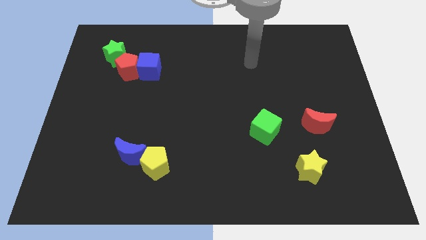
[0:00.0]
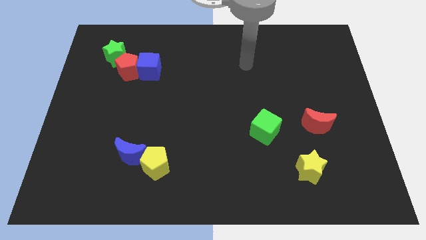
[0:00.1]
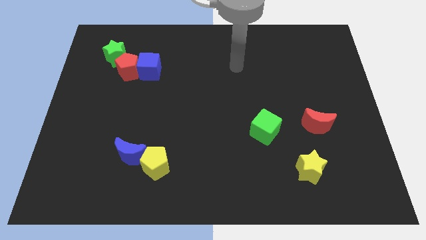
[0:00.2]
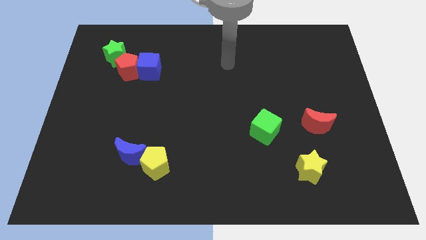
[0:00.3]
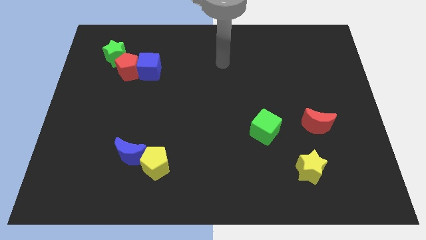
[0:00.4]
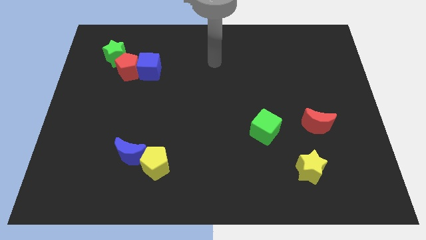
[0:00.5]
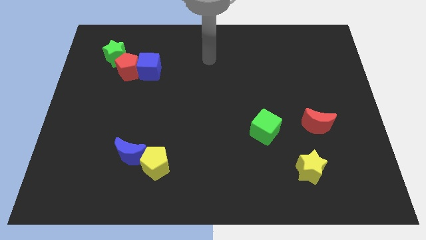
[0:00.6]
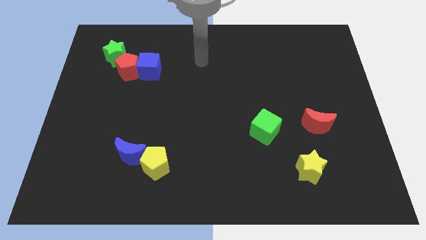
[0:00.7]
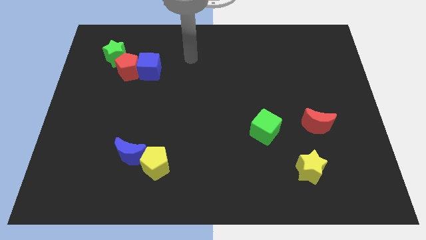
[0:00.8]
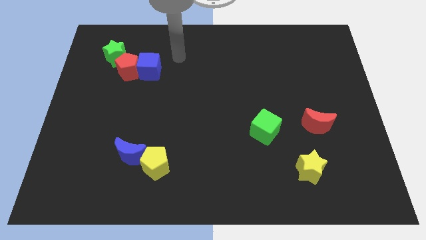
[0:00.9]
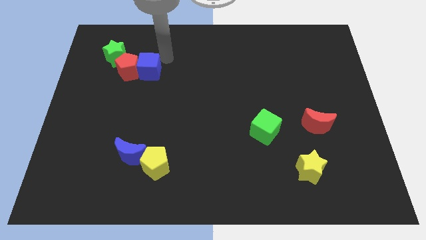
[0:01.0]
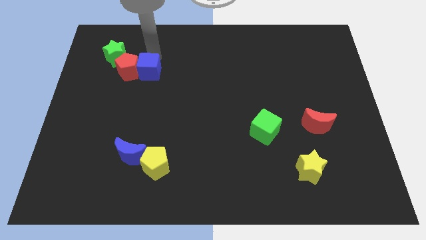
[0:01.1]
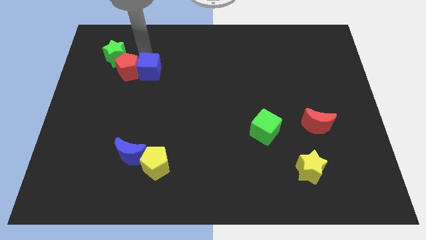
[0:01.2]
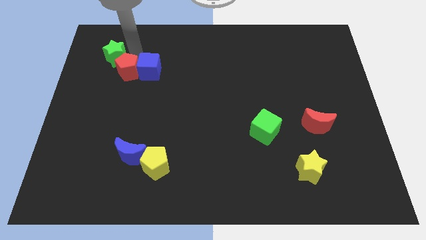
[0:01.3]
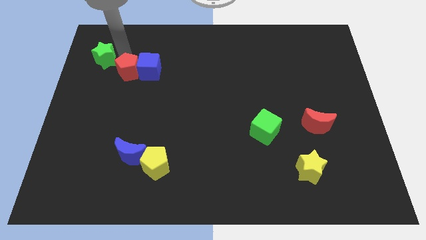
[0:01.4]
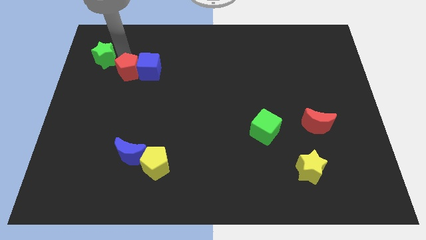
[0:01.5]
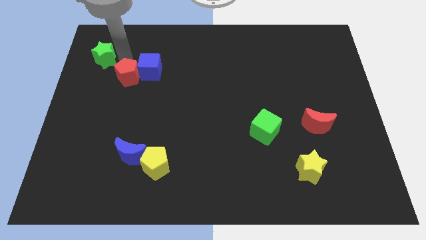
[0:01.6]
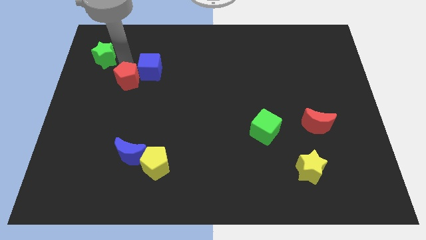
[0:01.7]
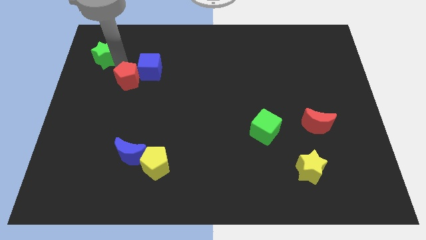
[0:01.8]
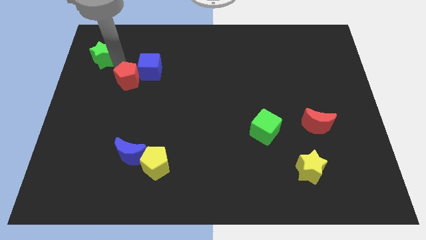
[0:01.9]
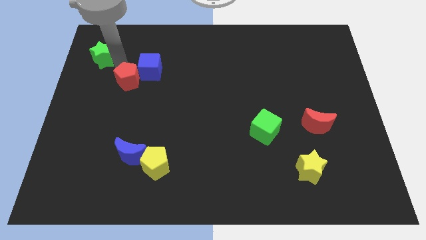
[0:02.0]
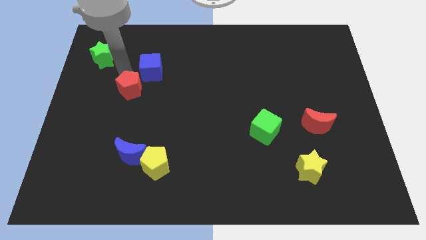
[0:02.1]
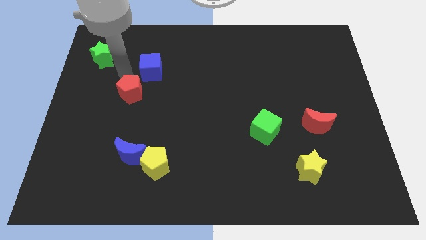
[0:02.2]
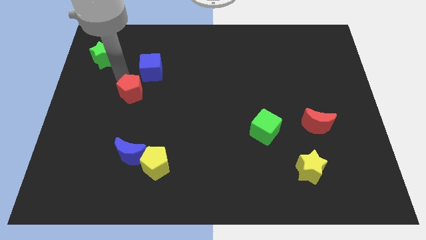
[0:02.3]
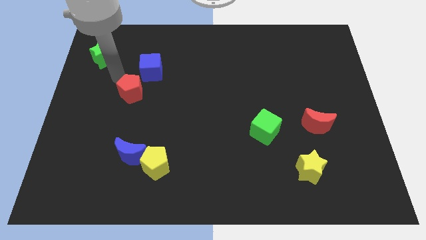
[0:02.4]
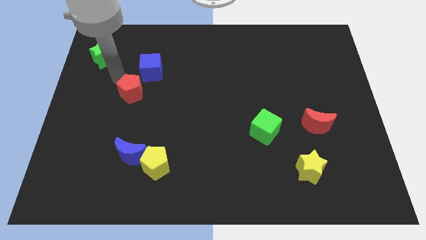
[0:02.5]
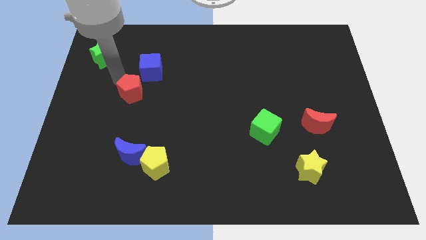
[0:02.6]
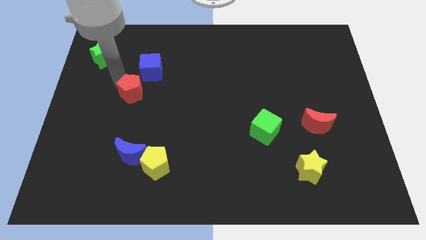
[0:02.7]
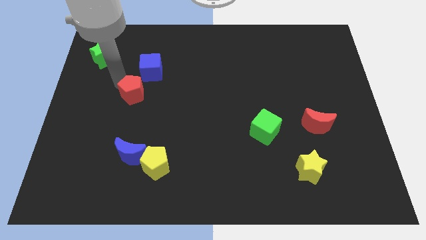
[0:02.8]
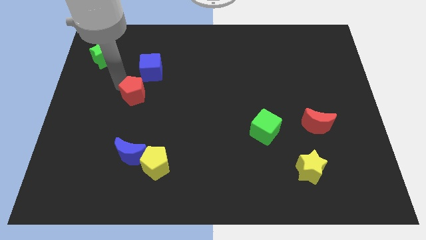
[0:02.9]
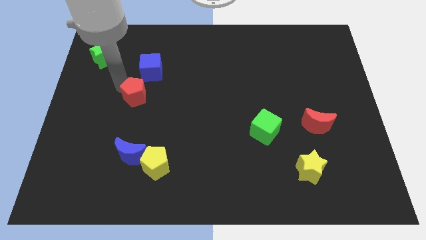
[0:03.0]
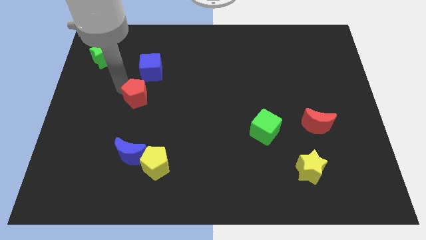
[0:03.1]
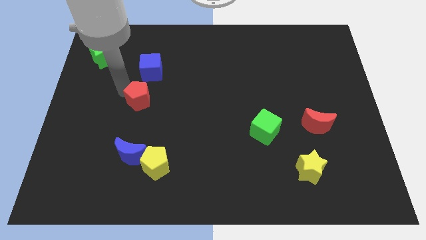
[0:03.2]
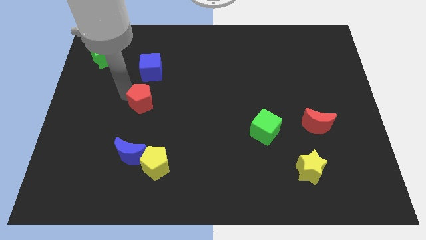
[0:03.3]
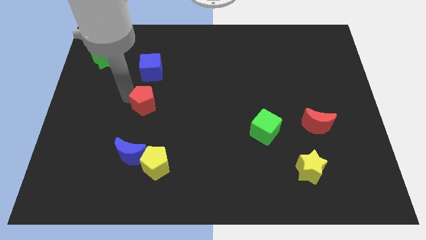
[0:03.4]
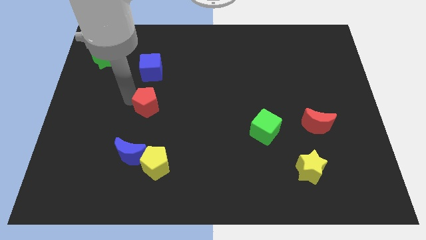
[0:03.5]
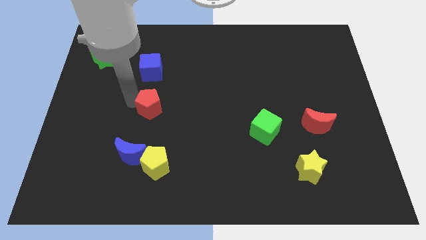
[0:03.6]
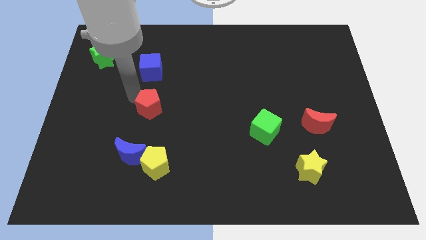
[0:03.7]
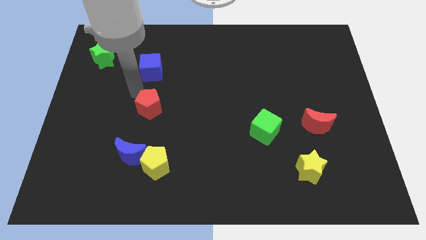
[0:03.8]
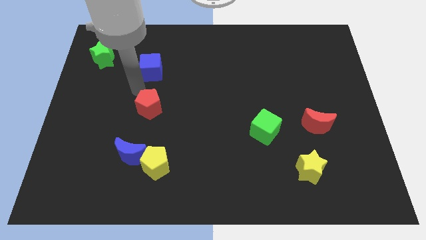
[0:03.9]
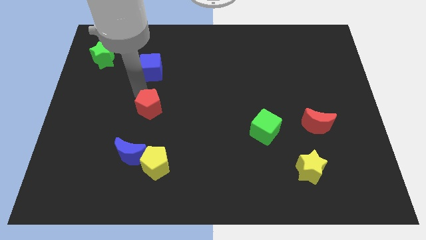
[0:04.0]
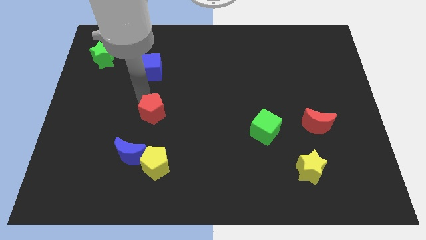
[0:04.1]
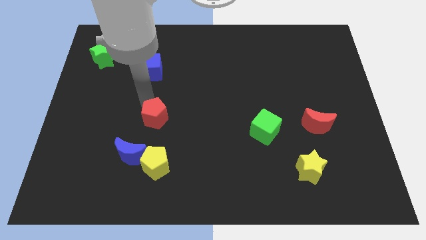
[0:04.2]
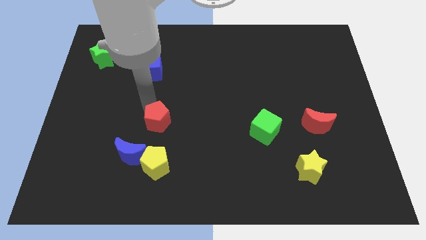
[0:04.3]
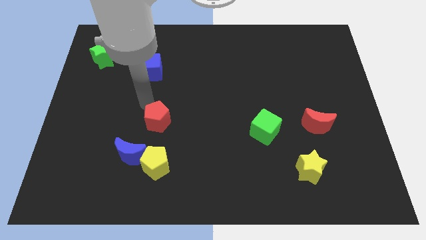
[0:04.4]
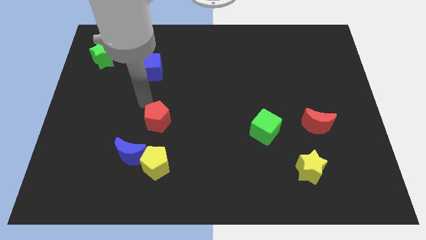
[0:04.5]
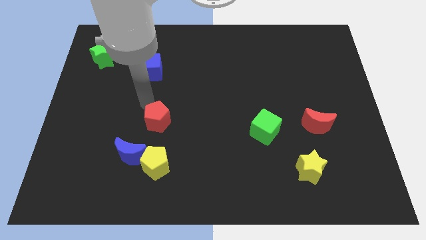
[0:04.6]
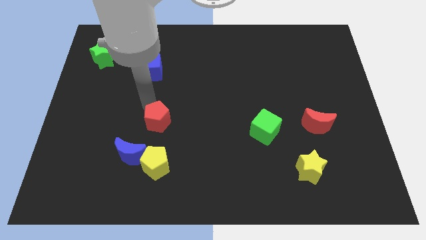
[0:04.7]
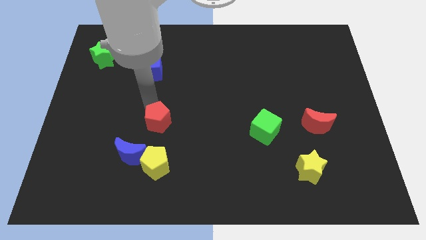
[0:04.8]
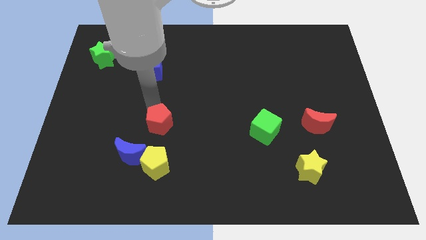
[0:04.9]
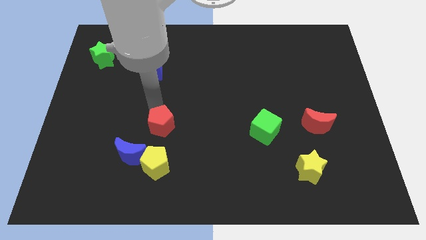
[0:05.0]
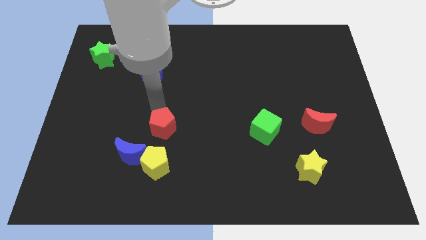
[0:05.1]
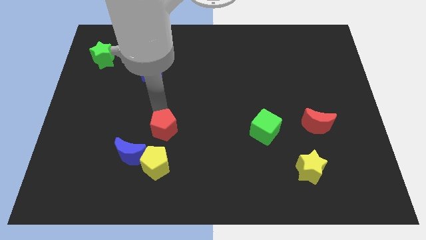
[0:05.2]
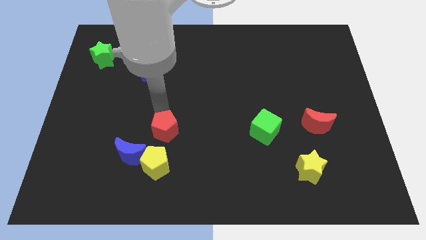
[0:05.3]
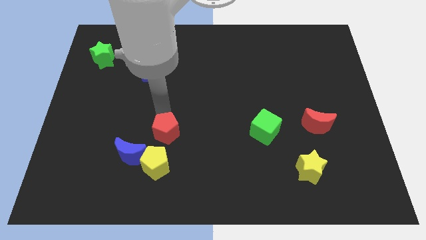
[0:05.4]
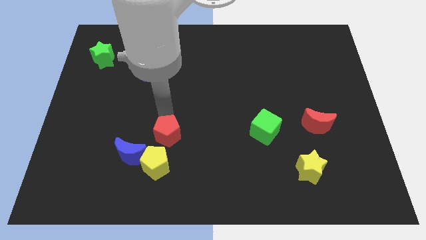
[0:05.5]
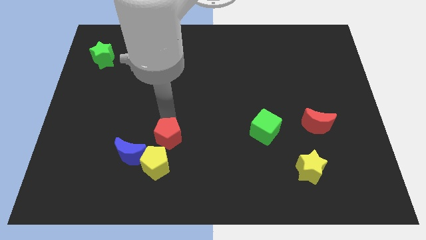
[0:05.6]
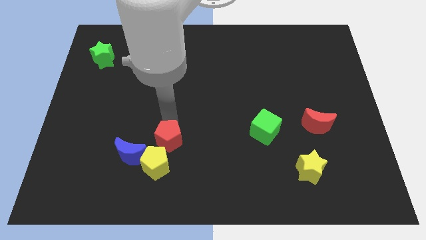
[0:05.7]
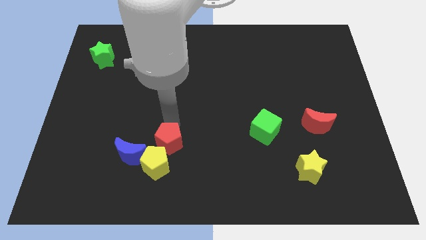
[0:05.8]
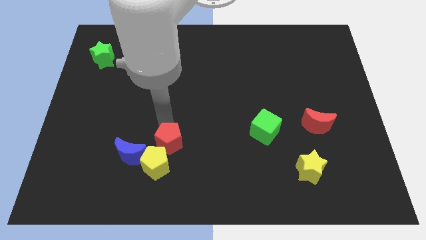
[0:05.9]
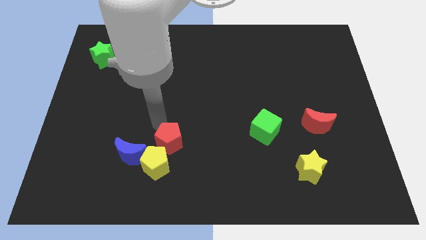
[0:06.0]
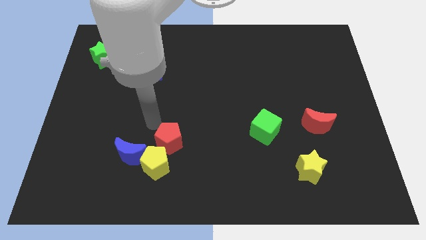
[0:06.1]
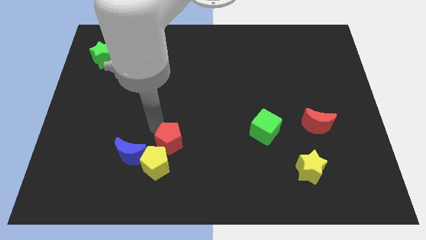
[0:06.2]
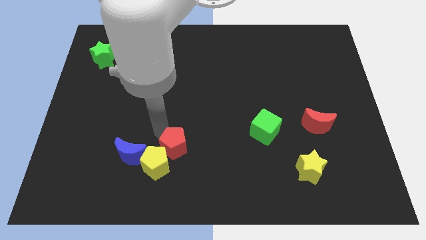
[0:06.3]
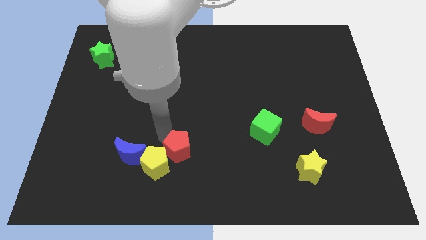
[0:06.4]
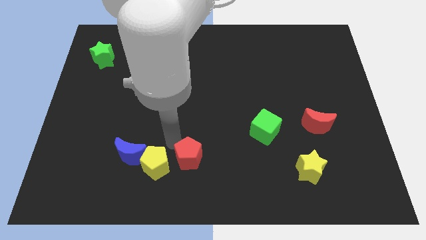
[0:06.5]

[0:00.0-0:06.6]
move the red pentagon to the bottom side

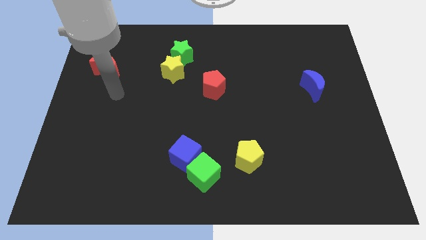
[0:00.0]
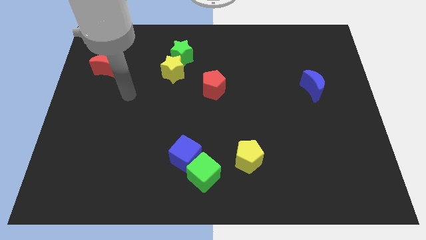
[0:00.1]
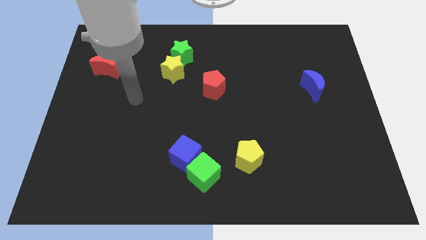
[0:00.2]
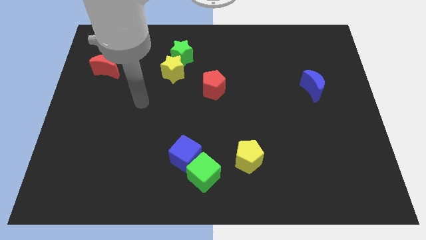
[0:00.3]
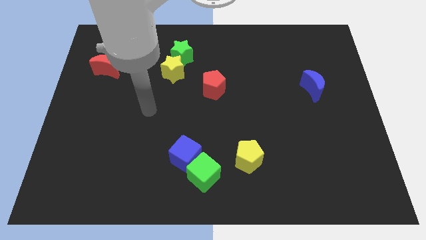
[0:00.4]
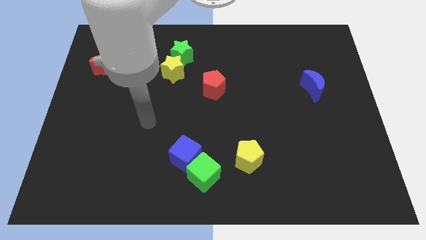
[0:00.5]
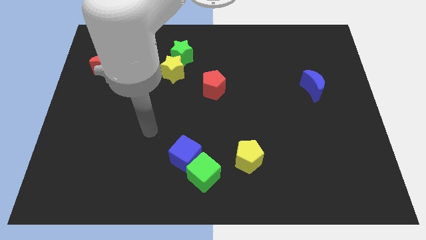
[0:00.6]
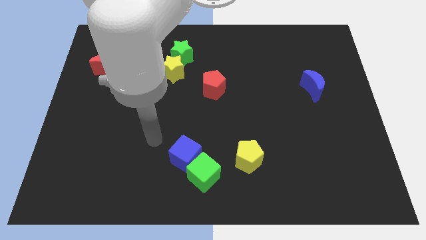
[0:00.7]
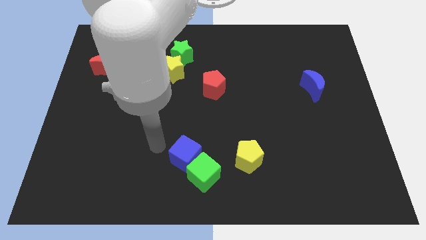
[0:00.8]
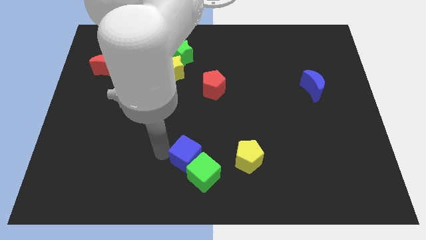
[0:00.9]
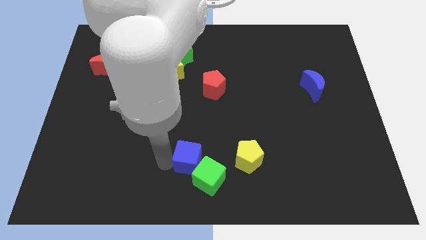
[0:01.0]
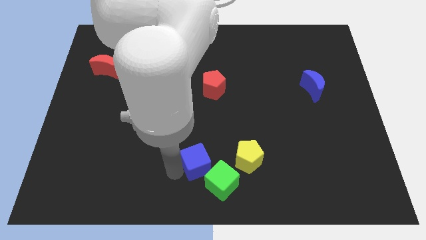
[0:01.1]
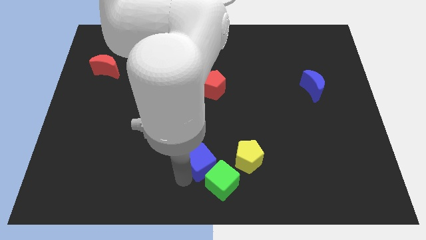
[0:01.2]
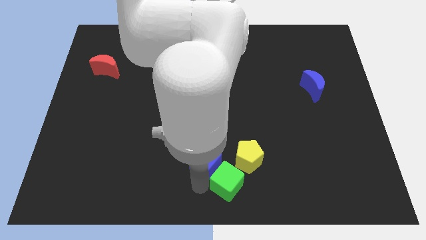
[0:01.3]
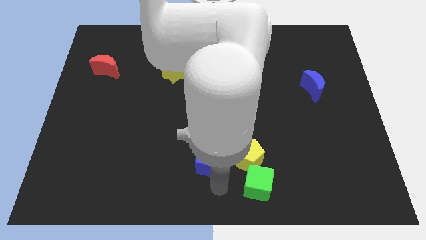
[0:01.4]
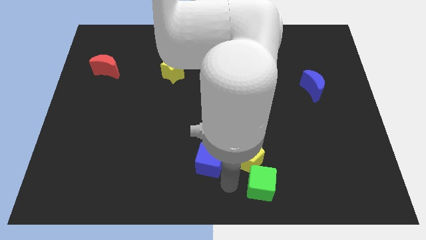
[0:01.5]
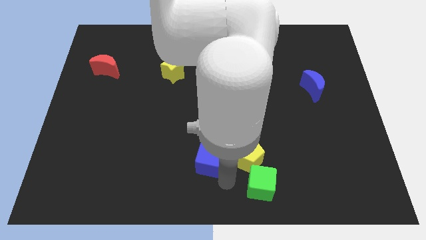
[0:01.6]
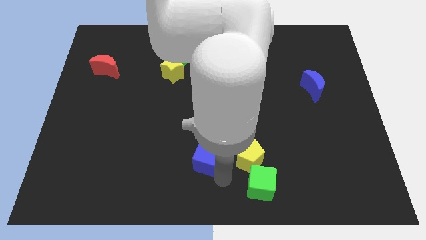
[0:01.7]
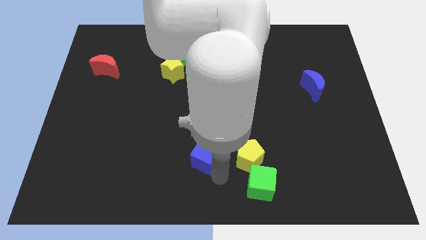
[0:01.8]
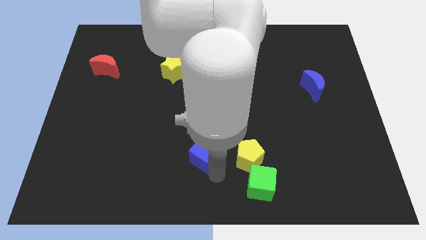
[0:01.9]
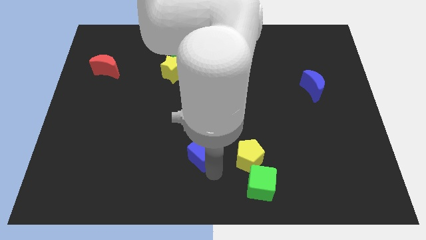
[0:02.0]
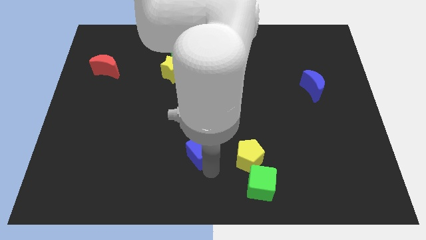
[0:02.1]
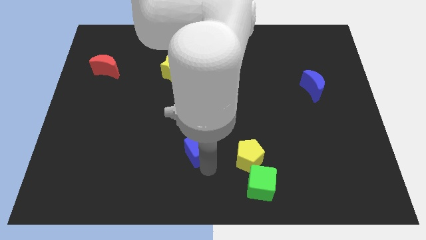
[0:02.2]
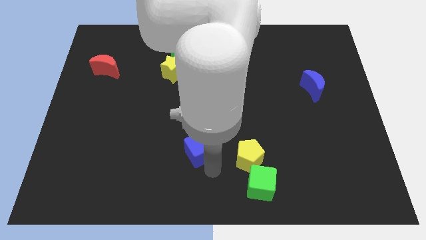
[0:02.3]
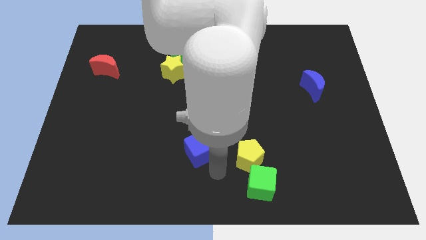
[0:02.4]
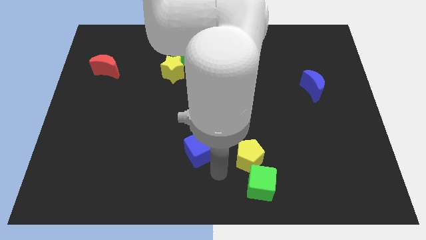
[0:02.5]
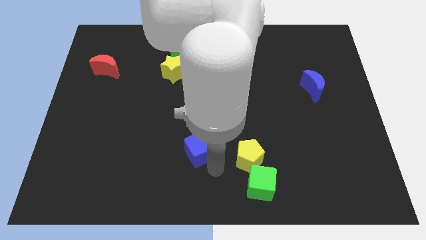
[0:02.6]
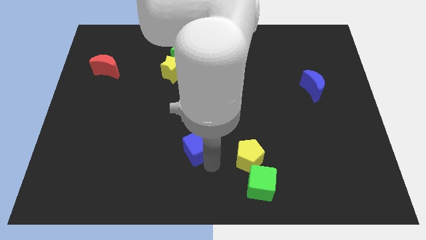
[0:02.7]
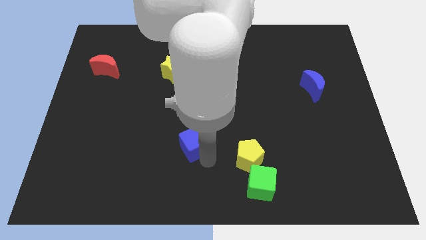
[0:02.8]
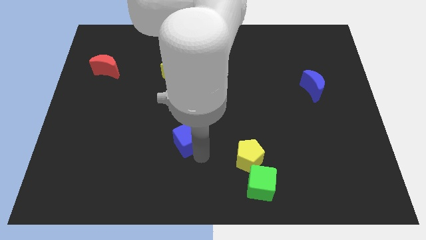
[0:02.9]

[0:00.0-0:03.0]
put the blue cube to the middle
